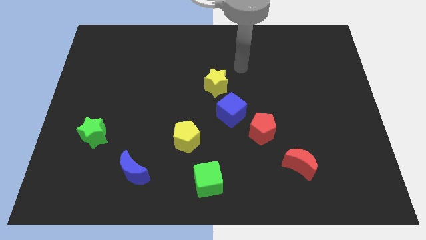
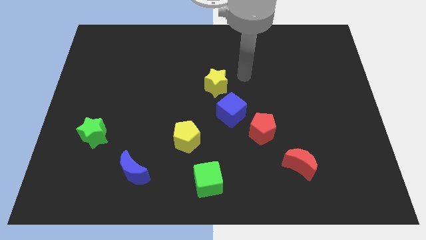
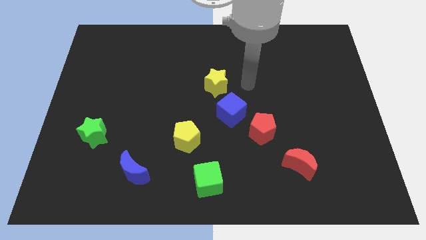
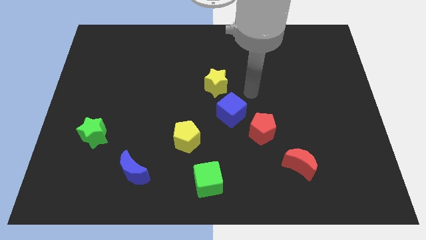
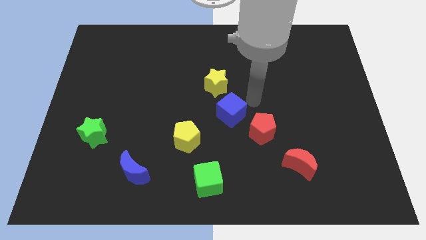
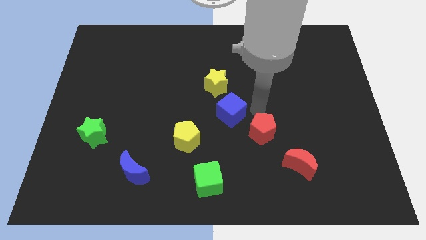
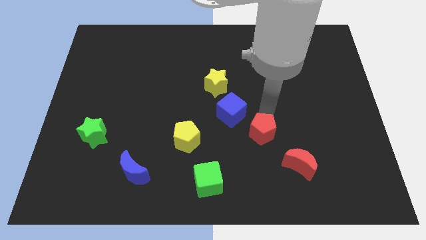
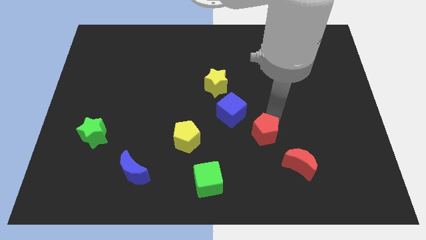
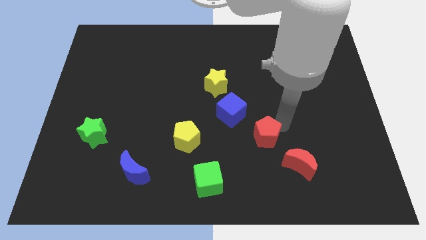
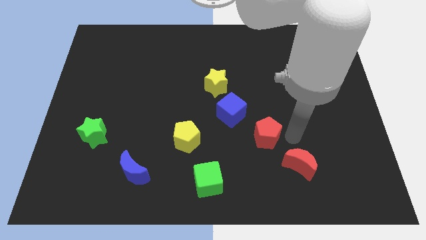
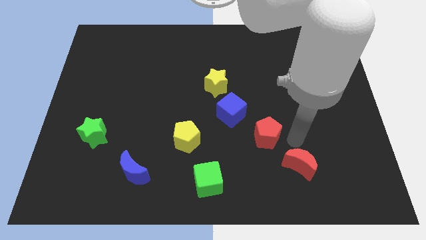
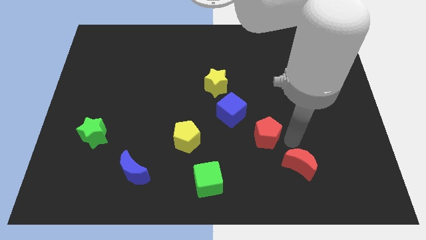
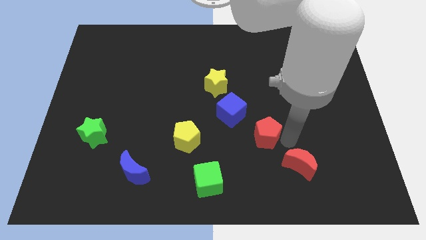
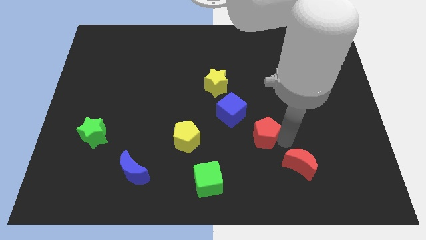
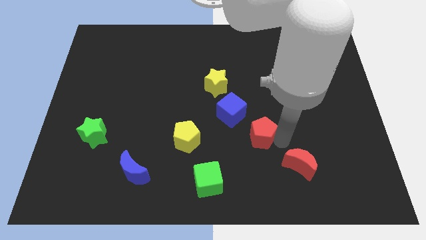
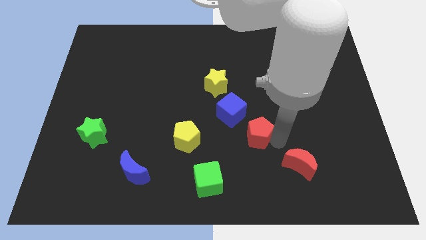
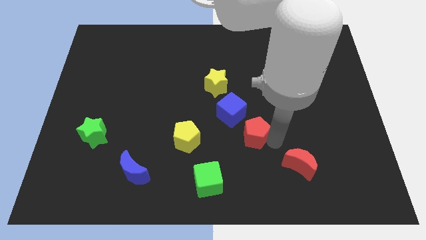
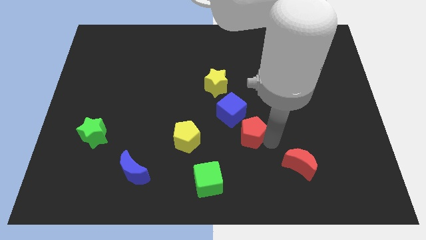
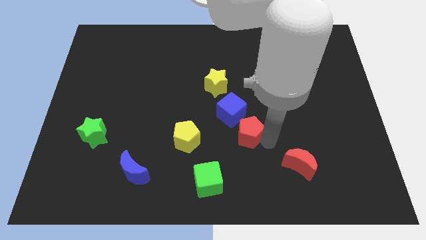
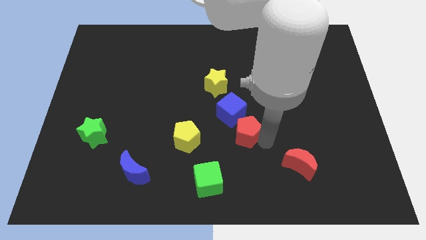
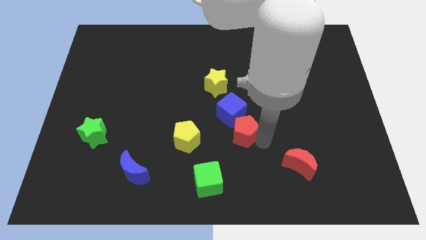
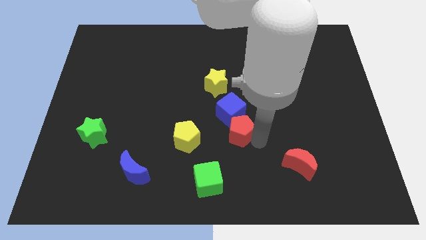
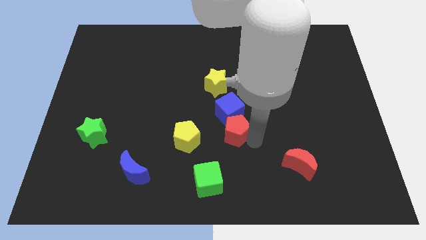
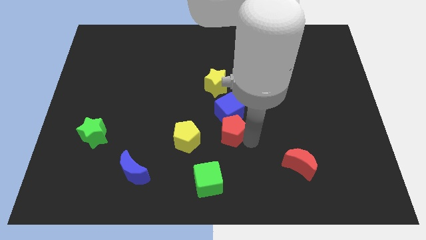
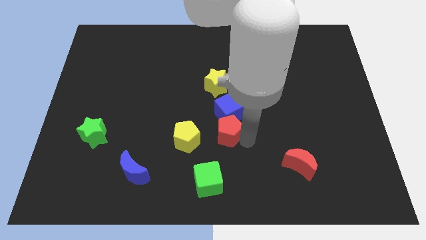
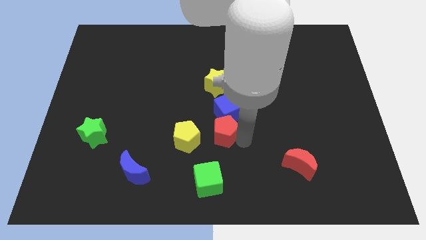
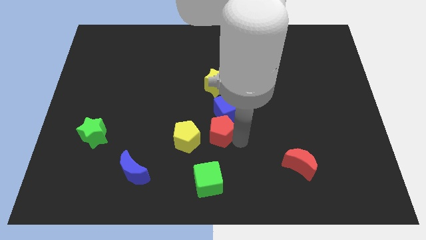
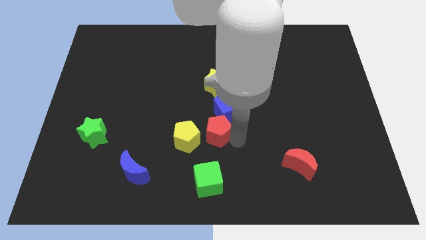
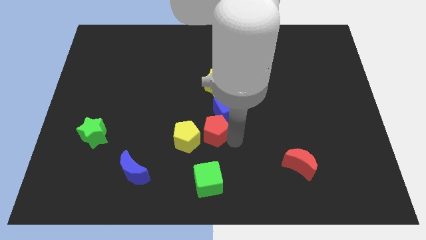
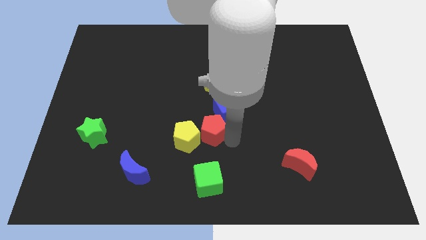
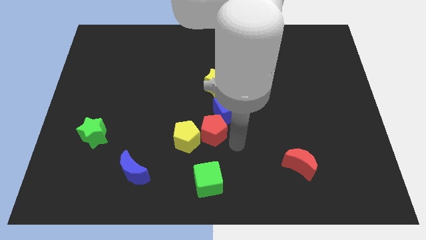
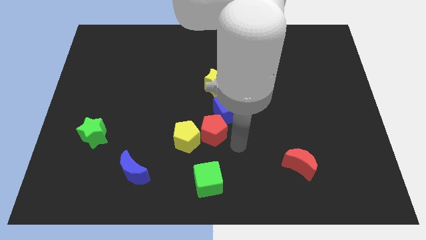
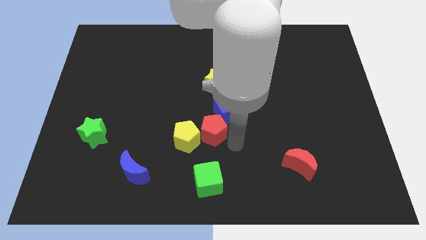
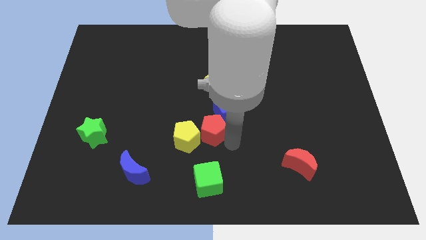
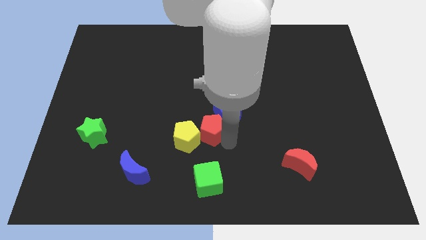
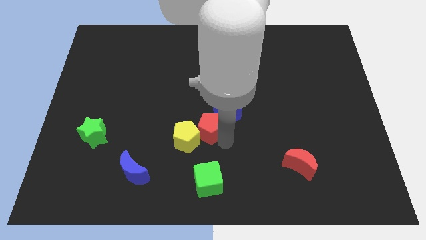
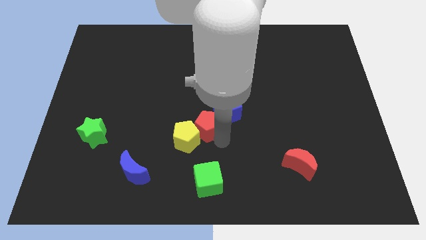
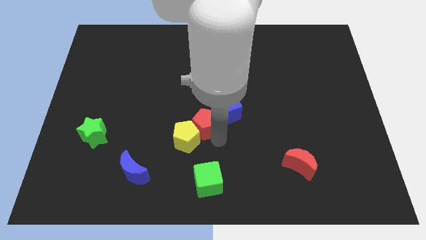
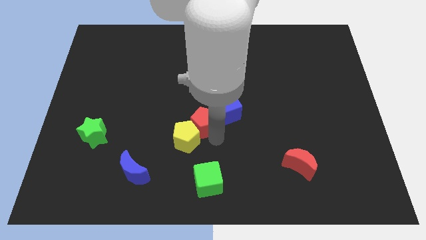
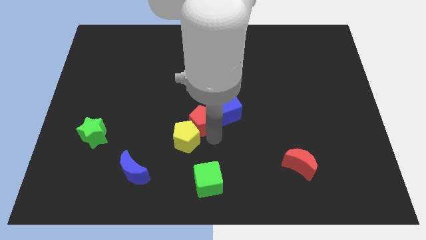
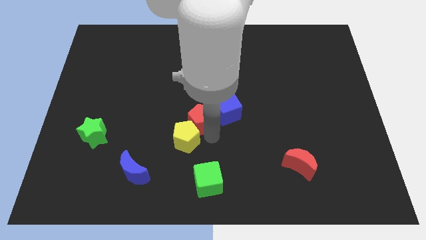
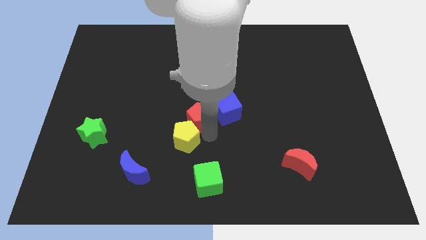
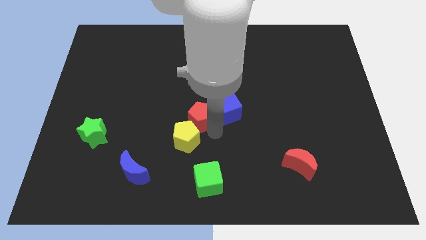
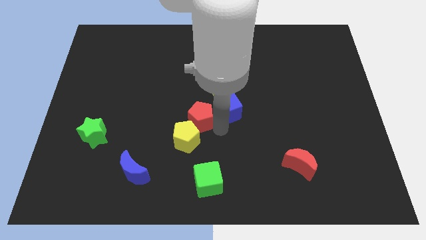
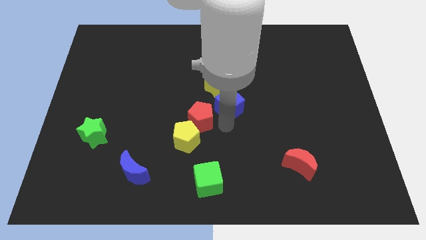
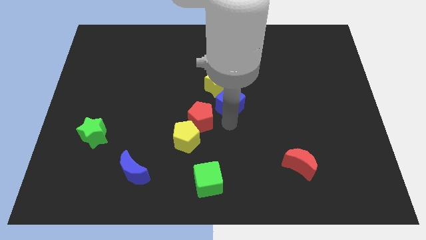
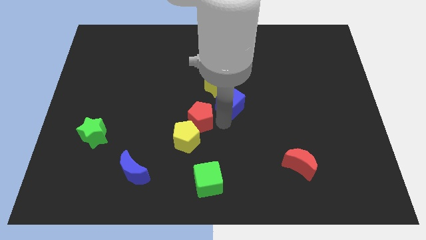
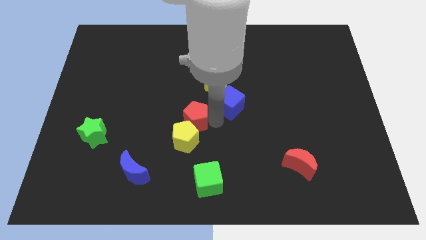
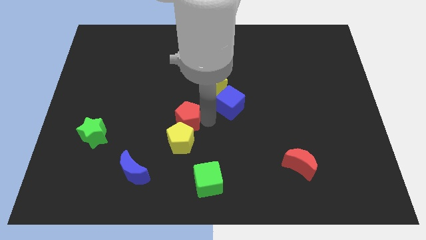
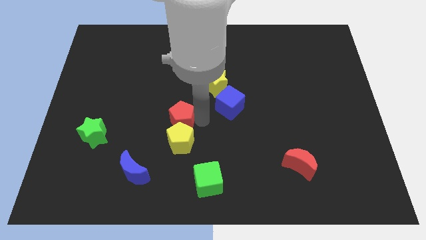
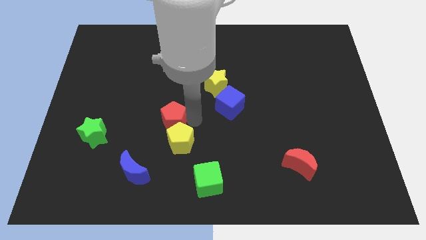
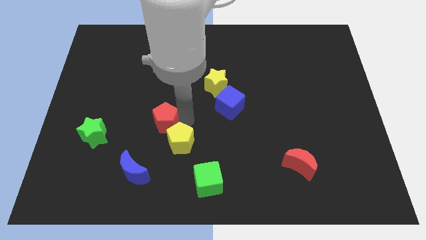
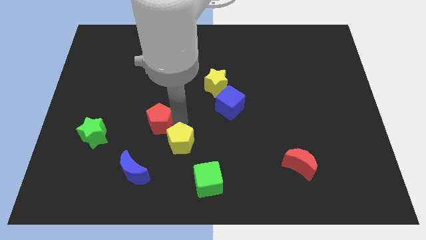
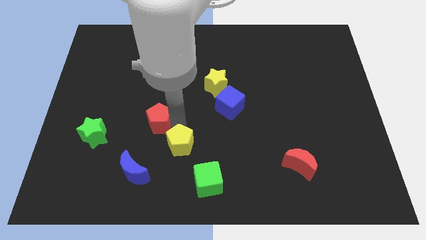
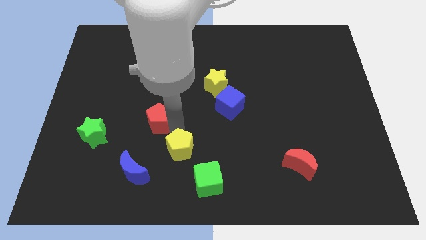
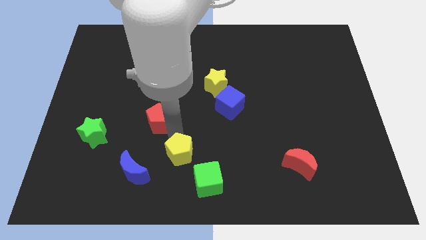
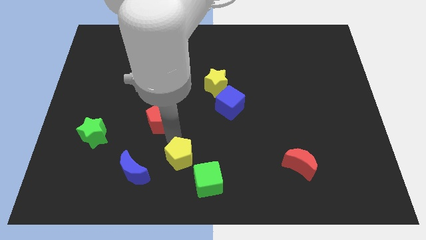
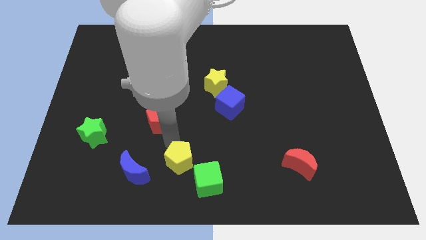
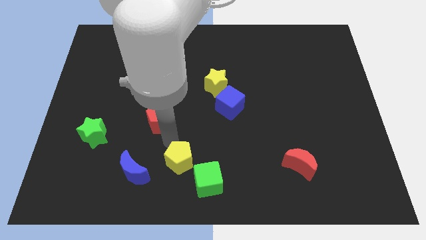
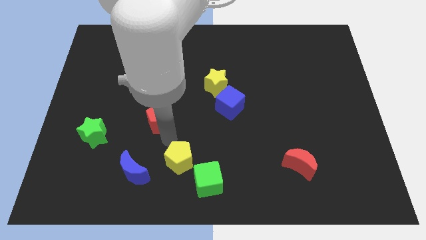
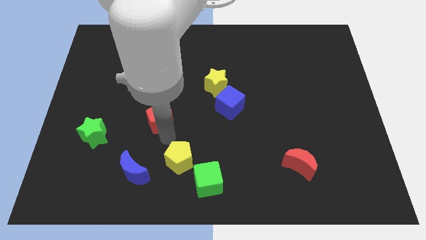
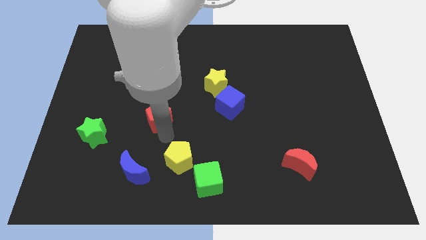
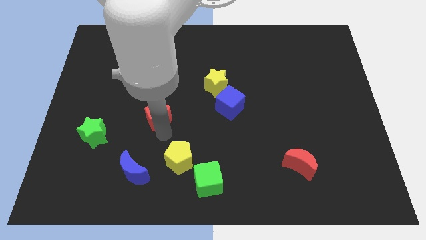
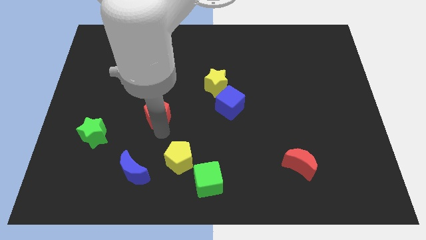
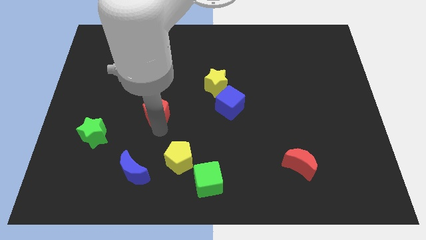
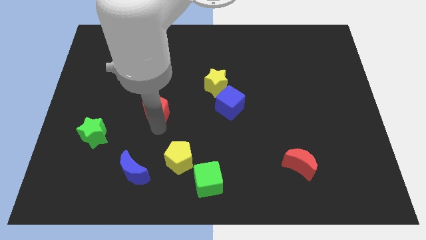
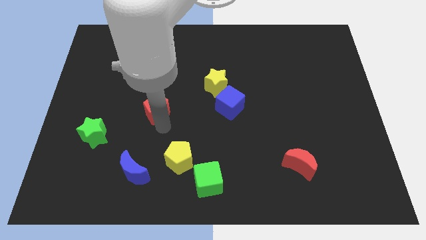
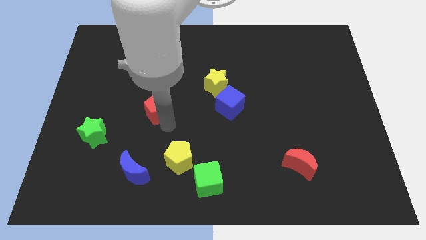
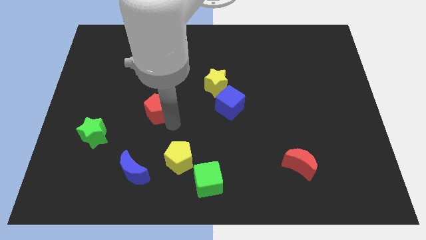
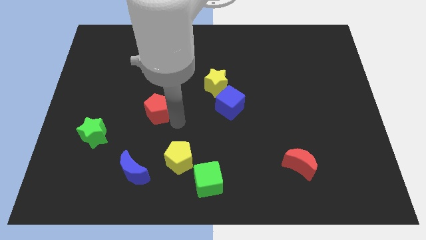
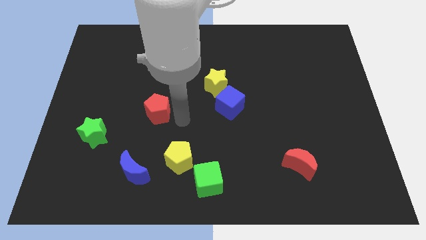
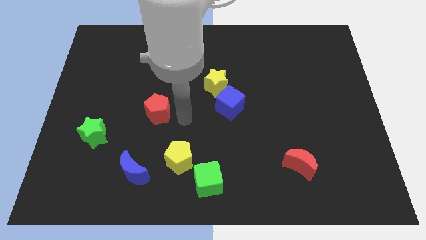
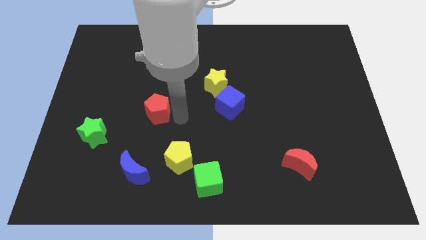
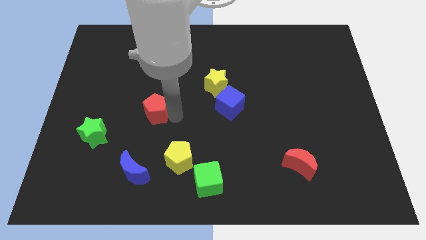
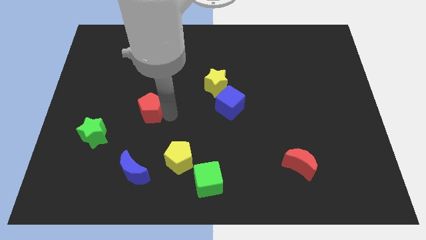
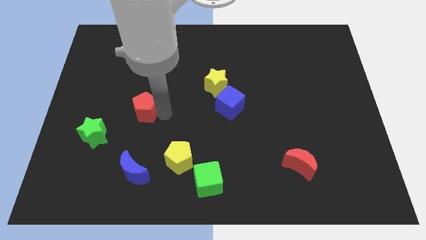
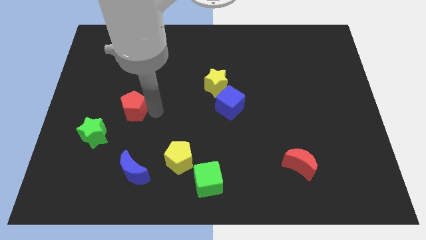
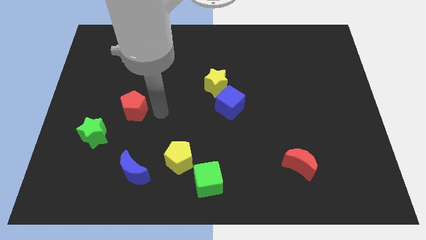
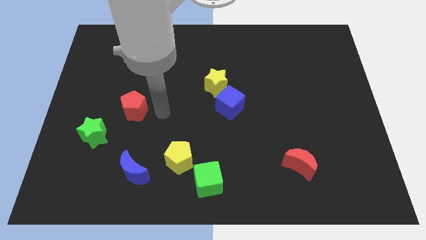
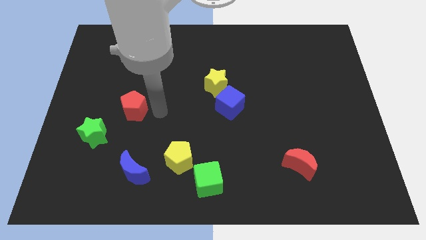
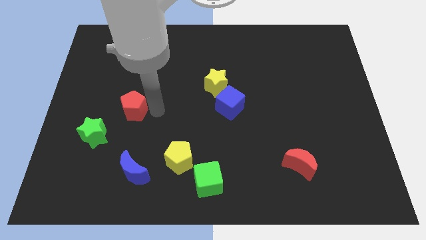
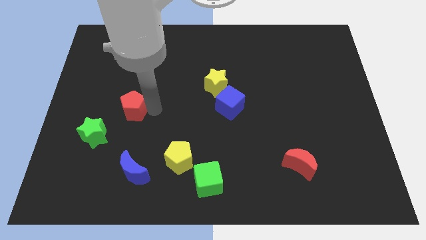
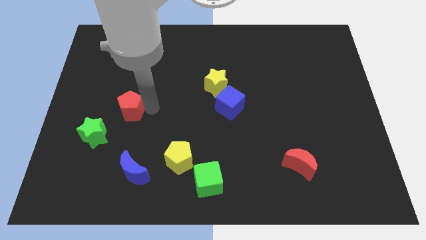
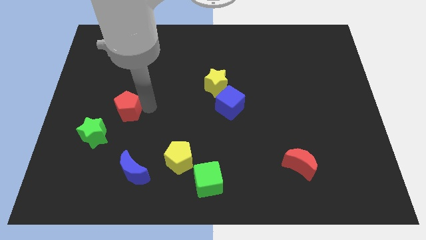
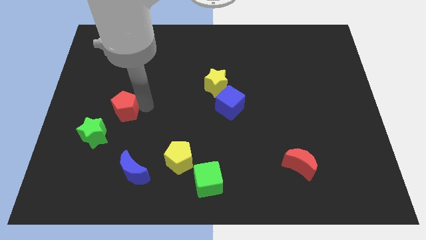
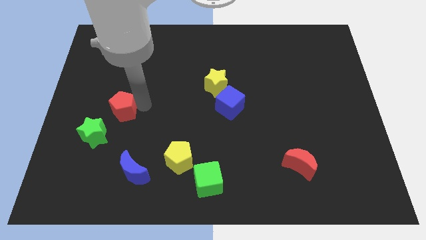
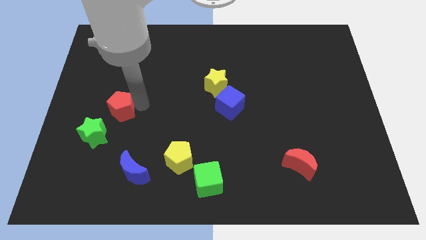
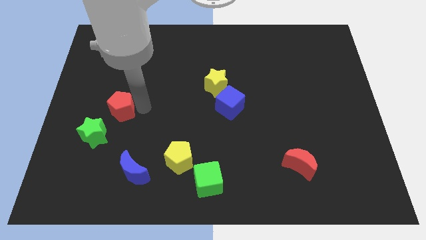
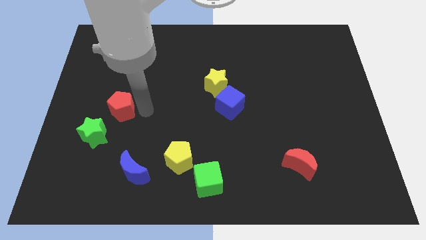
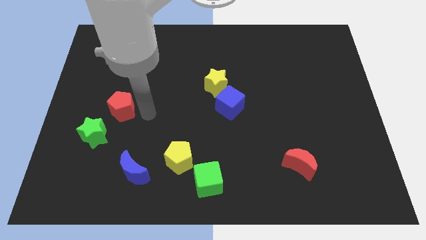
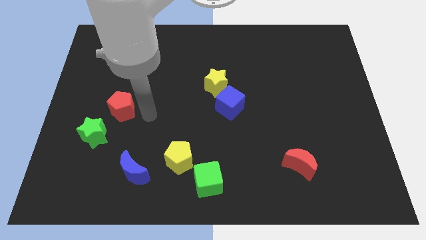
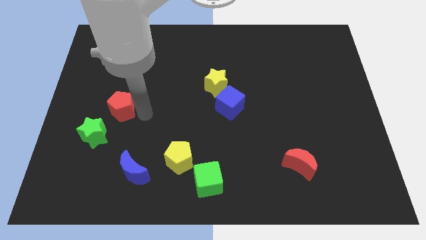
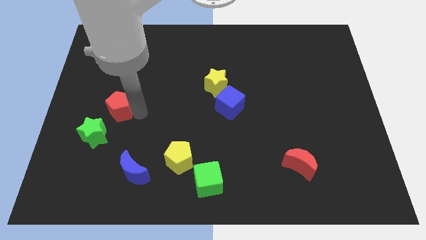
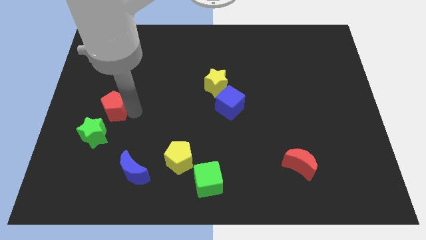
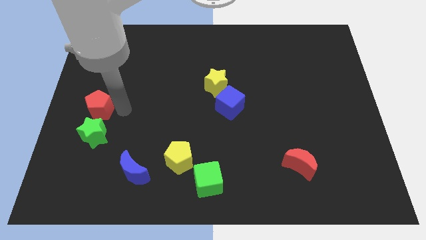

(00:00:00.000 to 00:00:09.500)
push the red pentagon to the center left
